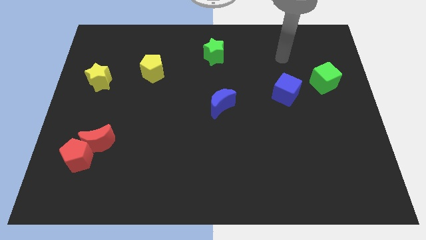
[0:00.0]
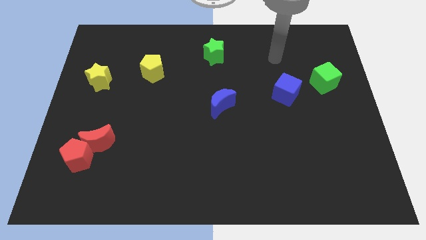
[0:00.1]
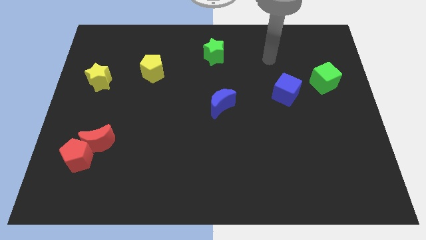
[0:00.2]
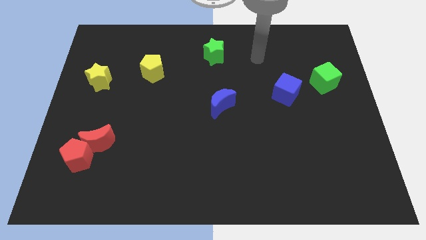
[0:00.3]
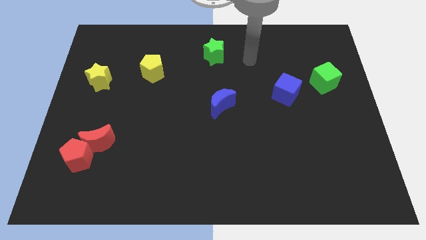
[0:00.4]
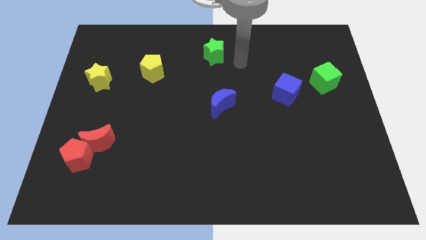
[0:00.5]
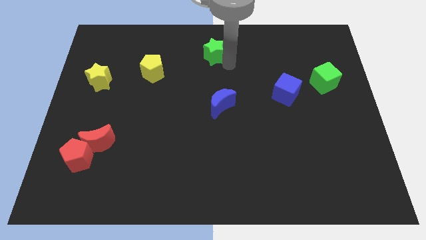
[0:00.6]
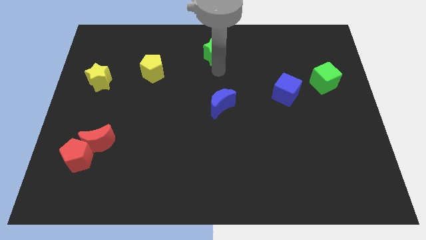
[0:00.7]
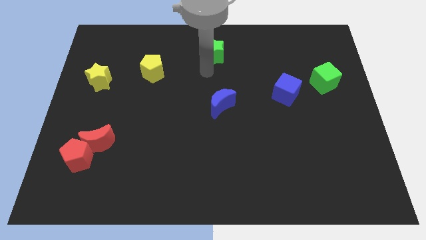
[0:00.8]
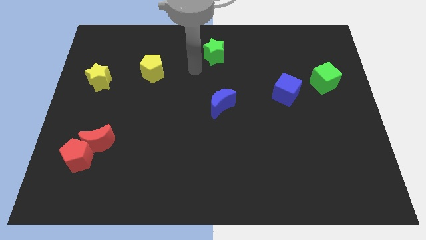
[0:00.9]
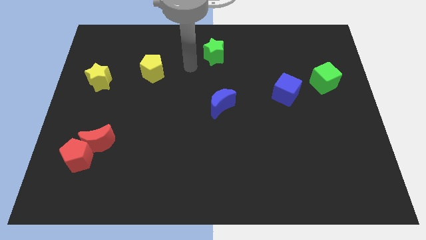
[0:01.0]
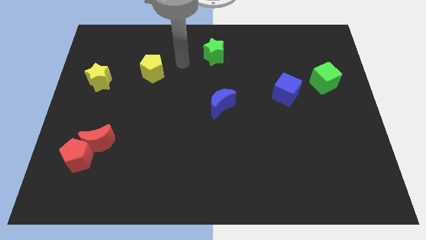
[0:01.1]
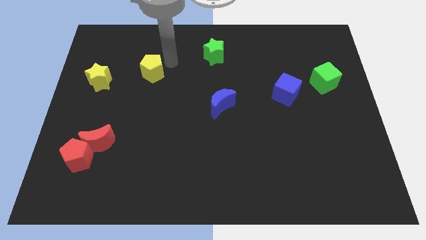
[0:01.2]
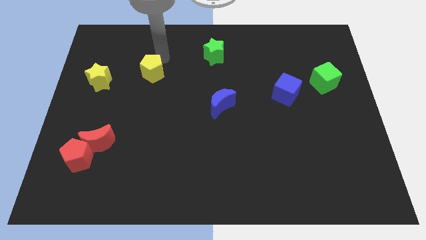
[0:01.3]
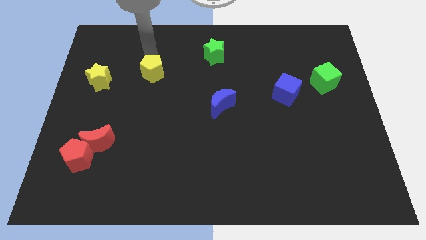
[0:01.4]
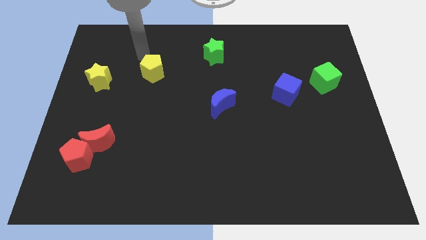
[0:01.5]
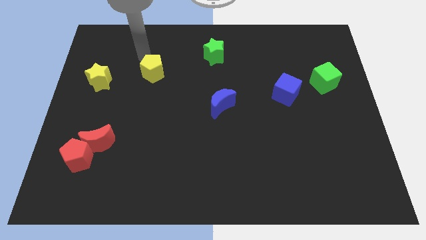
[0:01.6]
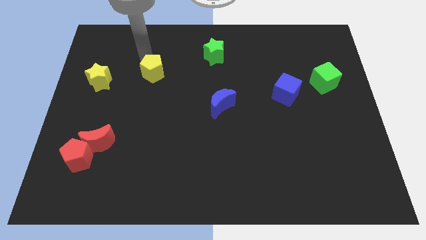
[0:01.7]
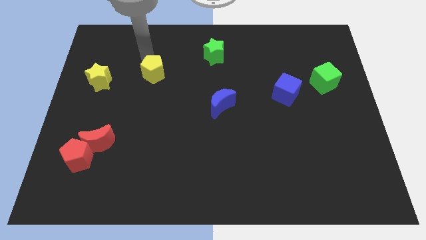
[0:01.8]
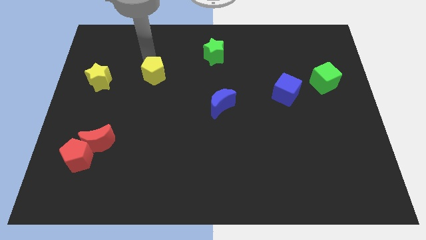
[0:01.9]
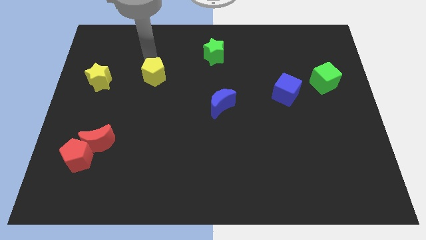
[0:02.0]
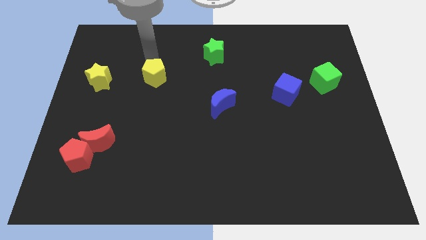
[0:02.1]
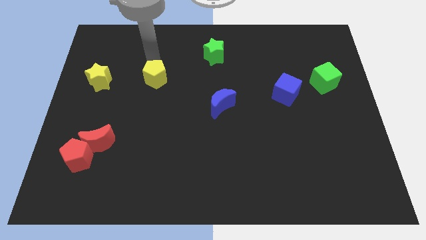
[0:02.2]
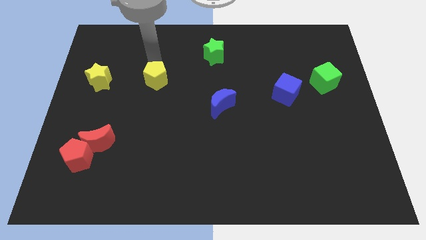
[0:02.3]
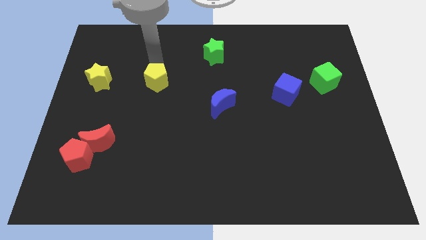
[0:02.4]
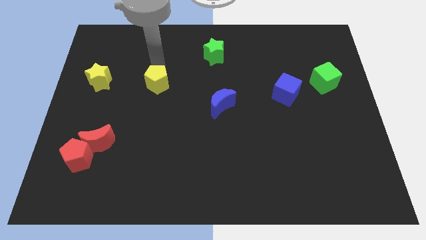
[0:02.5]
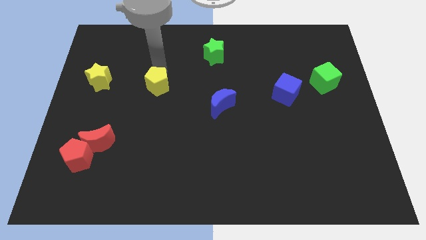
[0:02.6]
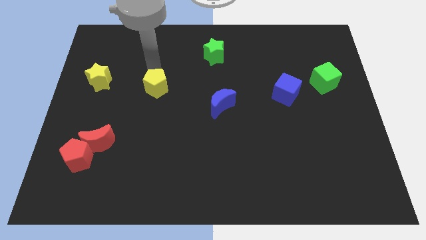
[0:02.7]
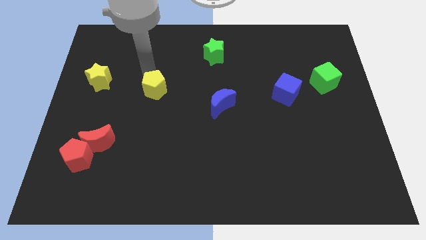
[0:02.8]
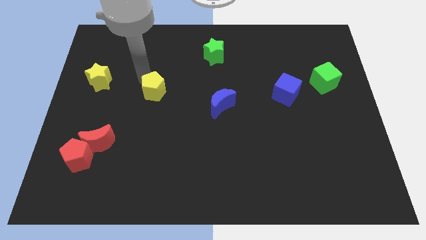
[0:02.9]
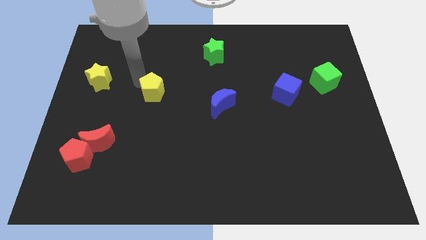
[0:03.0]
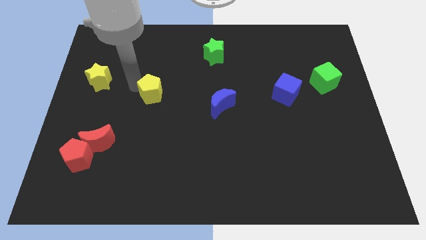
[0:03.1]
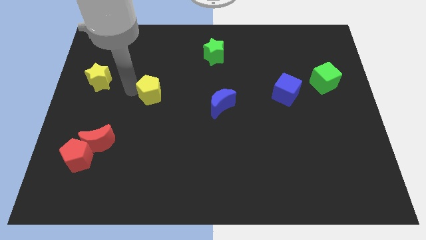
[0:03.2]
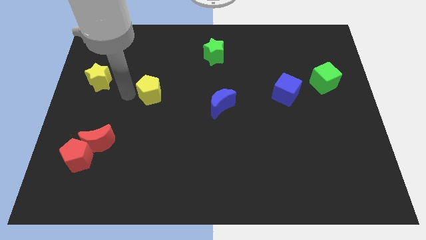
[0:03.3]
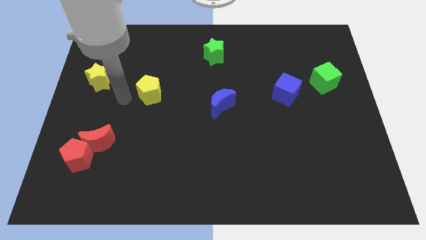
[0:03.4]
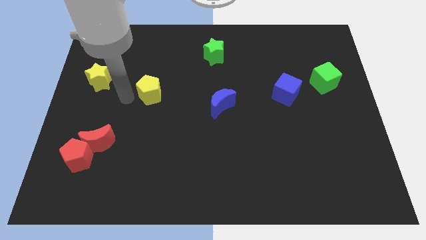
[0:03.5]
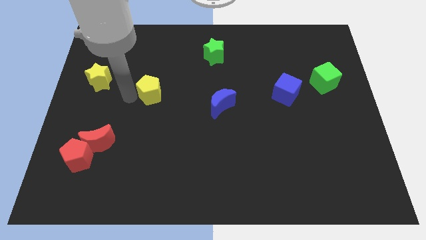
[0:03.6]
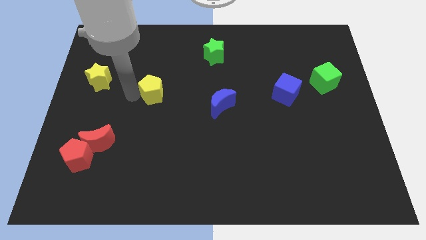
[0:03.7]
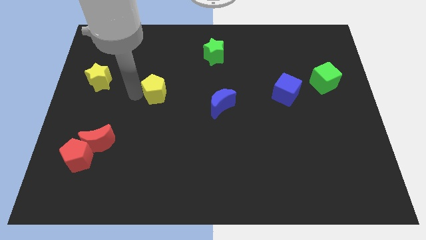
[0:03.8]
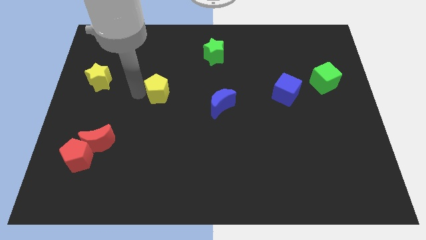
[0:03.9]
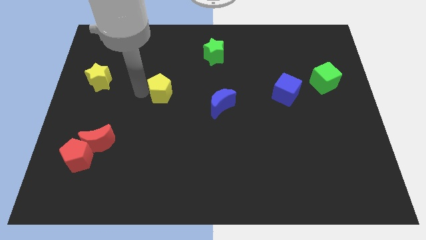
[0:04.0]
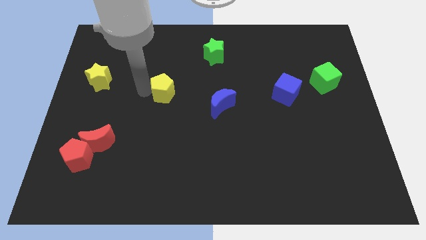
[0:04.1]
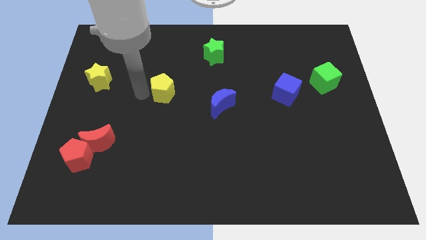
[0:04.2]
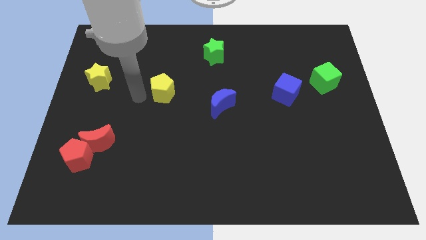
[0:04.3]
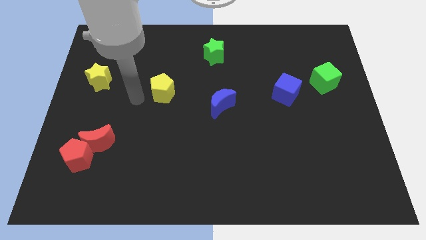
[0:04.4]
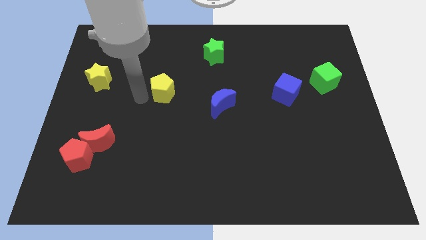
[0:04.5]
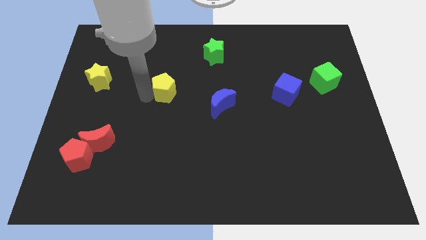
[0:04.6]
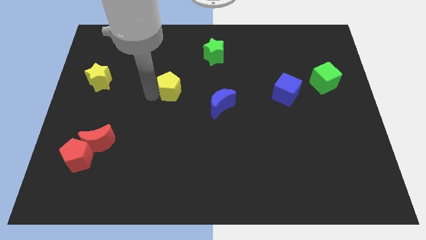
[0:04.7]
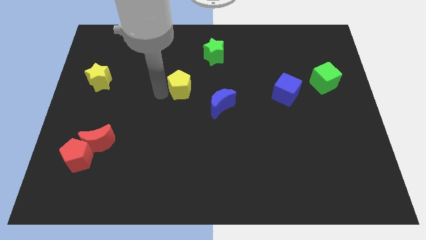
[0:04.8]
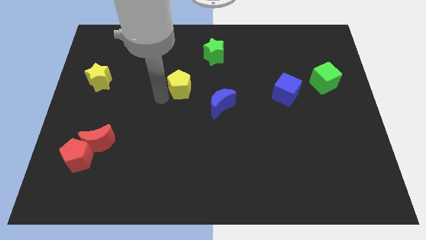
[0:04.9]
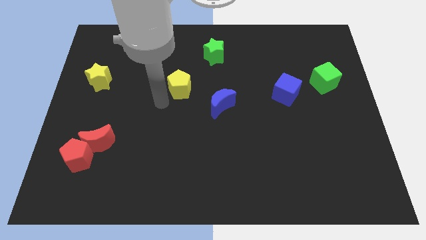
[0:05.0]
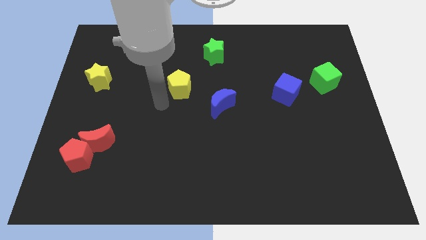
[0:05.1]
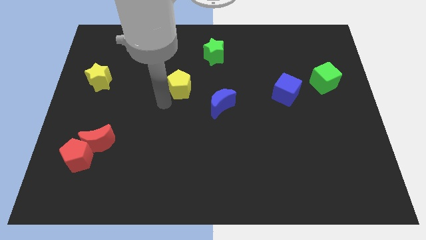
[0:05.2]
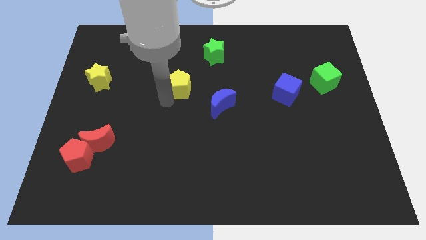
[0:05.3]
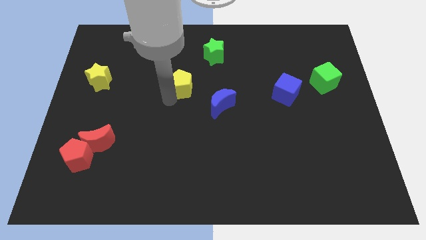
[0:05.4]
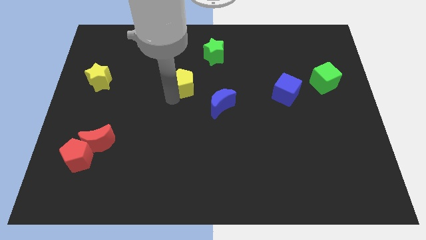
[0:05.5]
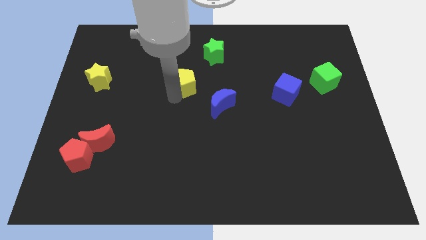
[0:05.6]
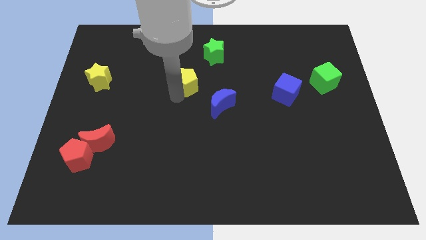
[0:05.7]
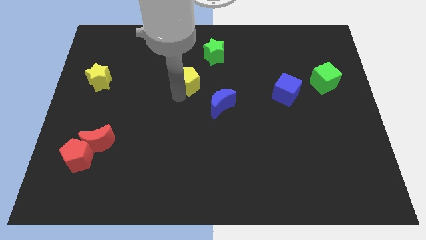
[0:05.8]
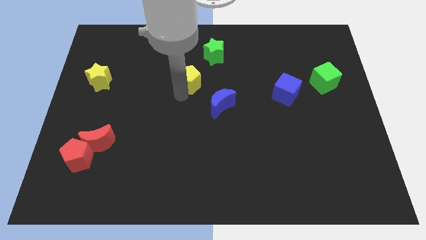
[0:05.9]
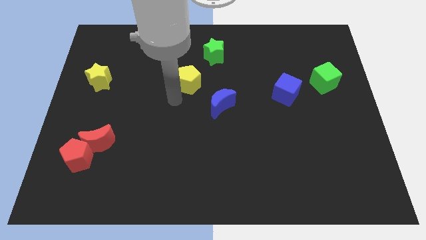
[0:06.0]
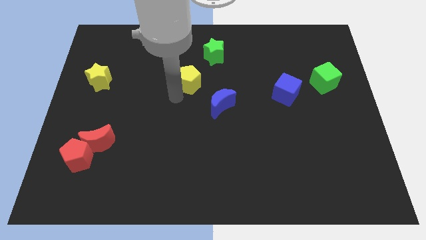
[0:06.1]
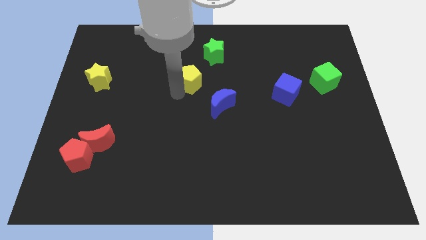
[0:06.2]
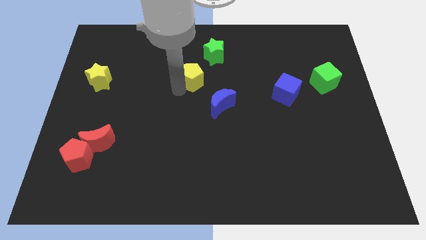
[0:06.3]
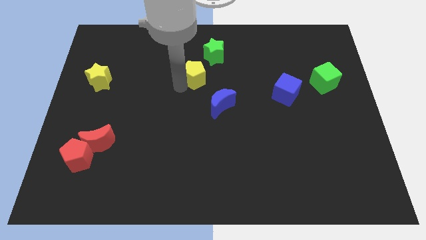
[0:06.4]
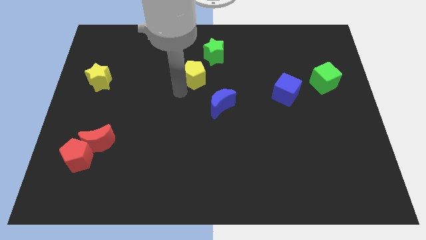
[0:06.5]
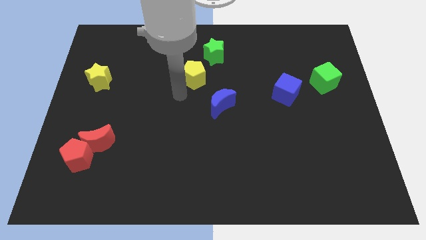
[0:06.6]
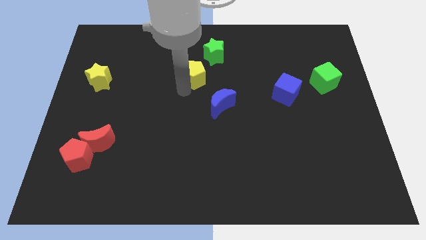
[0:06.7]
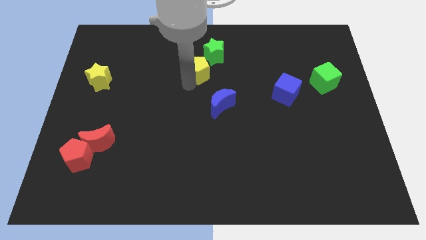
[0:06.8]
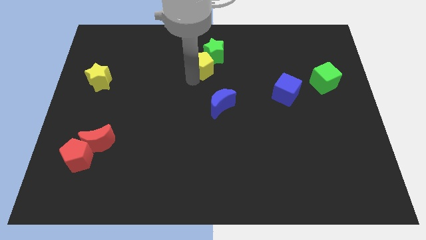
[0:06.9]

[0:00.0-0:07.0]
put the yellow pentagon close to the green star
